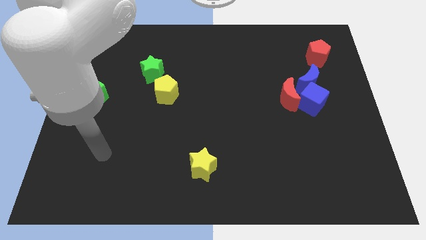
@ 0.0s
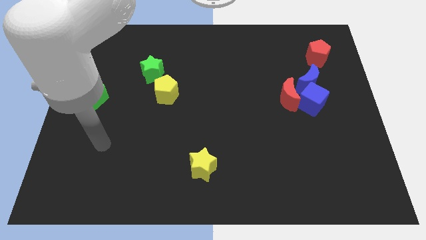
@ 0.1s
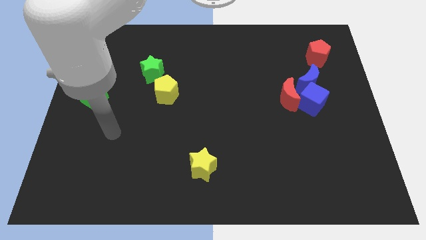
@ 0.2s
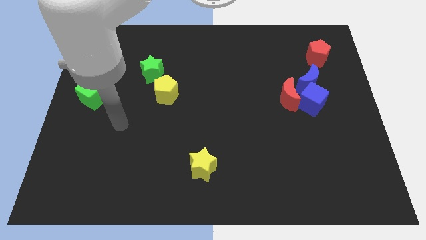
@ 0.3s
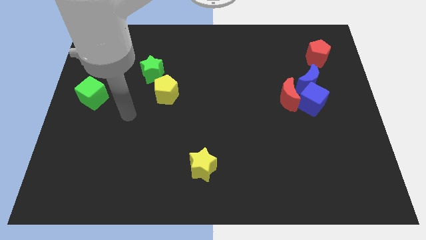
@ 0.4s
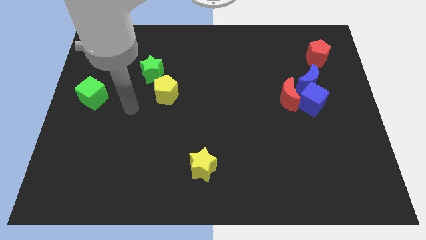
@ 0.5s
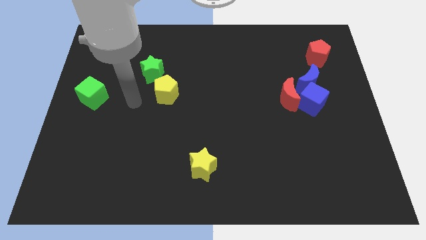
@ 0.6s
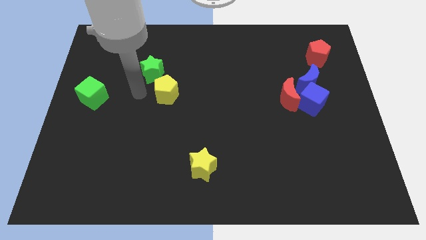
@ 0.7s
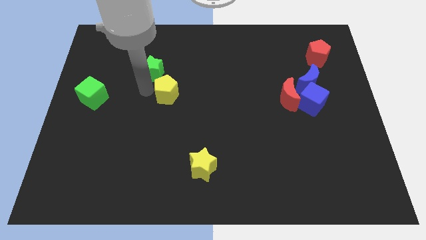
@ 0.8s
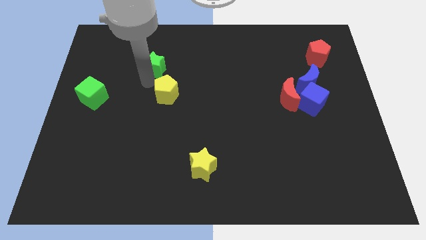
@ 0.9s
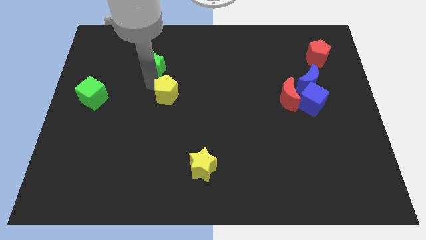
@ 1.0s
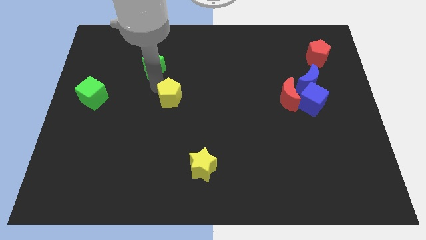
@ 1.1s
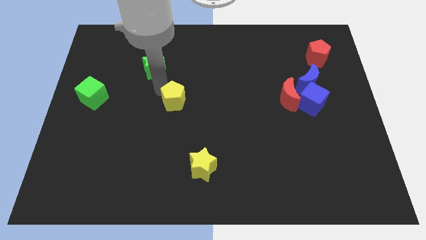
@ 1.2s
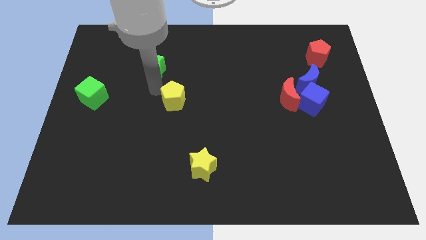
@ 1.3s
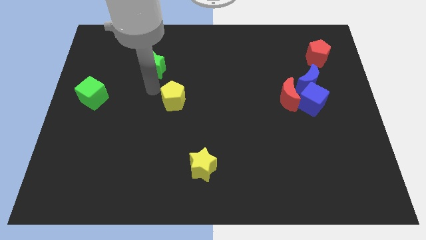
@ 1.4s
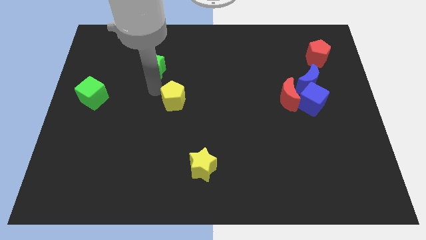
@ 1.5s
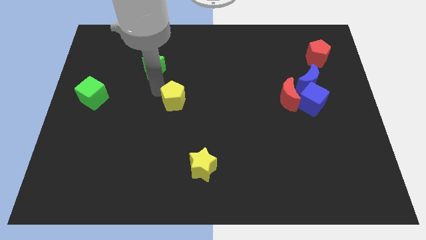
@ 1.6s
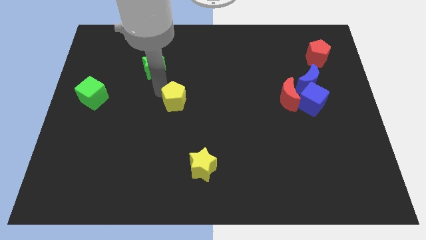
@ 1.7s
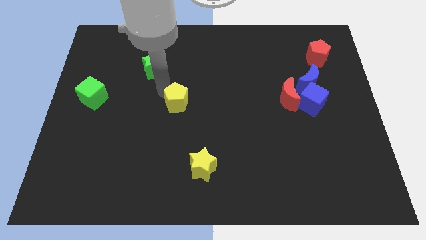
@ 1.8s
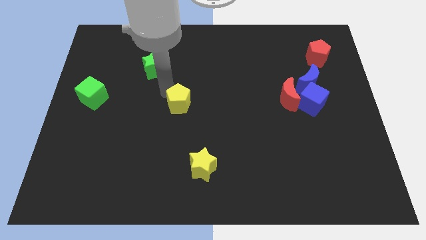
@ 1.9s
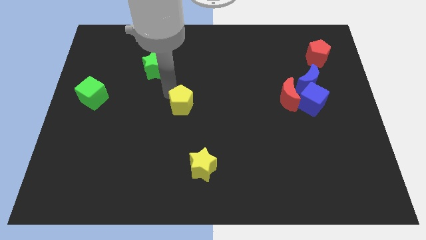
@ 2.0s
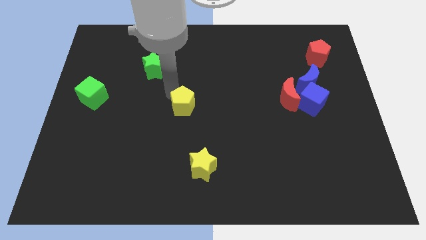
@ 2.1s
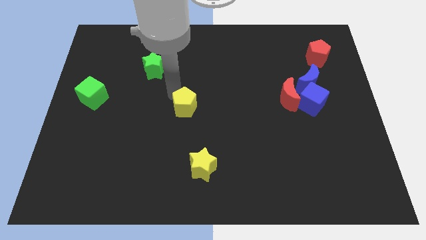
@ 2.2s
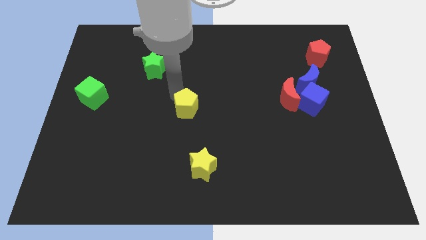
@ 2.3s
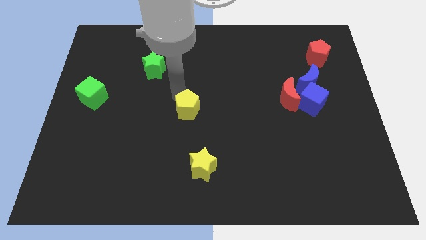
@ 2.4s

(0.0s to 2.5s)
move the yellow pentagon downwards and right a bit

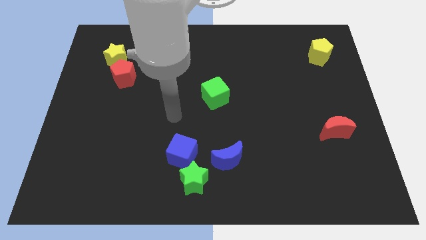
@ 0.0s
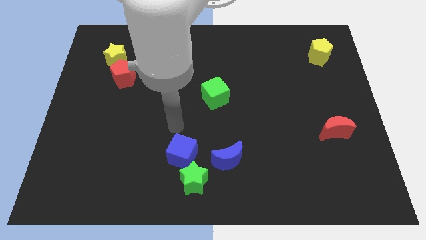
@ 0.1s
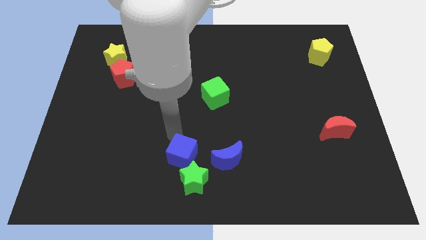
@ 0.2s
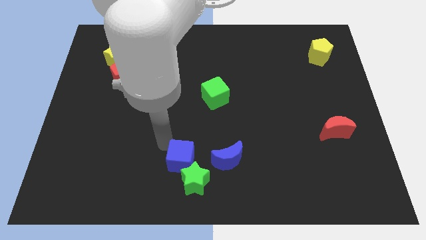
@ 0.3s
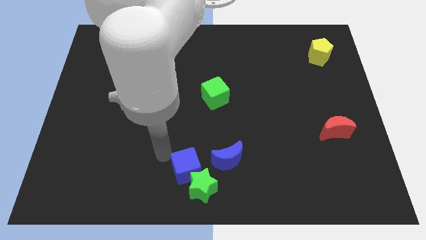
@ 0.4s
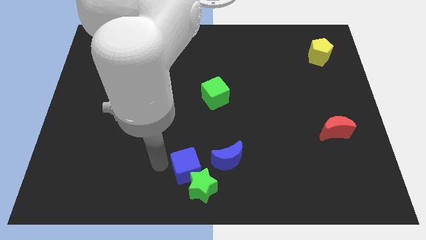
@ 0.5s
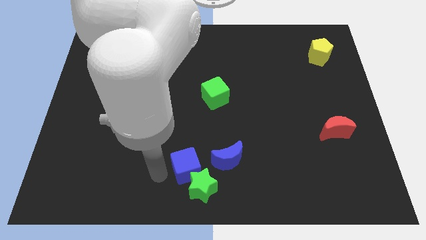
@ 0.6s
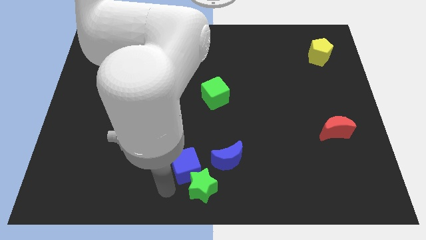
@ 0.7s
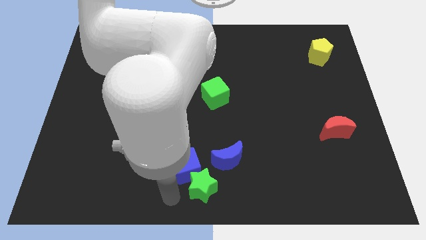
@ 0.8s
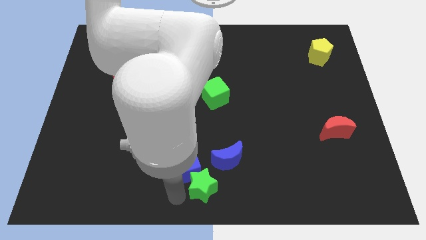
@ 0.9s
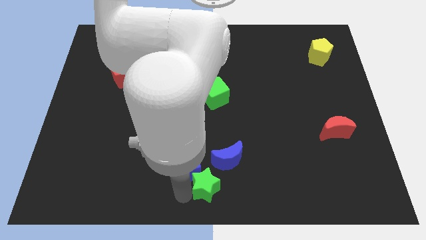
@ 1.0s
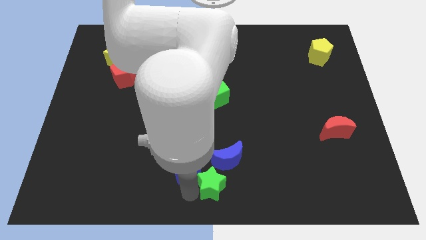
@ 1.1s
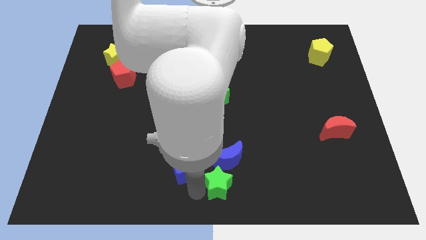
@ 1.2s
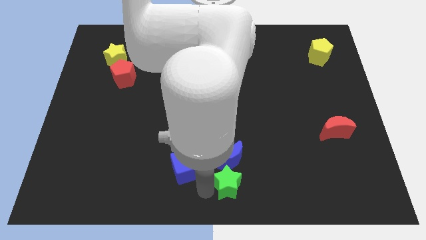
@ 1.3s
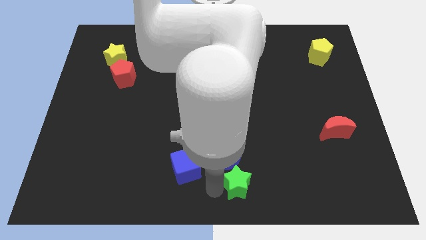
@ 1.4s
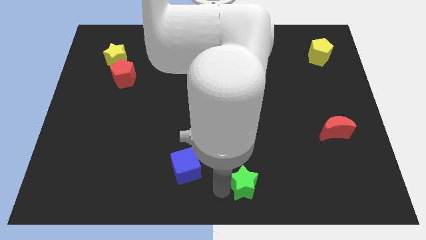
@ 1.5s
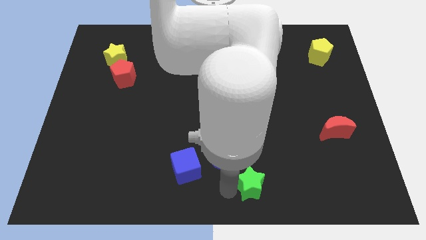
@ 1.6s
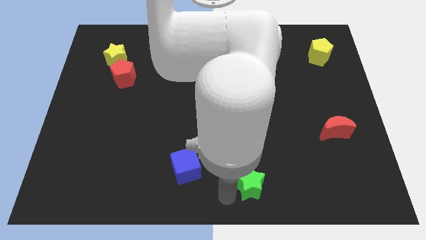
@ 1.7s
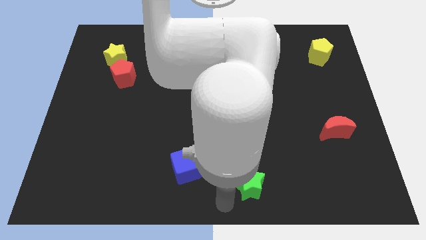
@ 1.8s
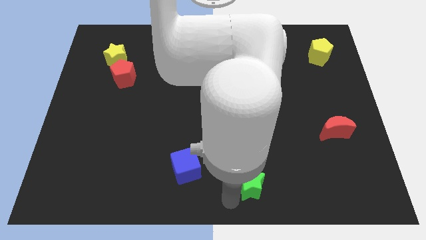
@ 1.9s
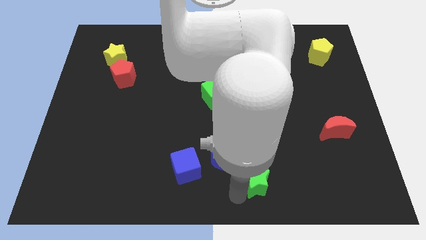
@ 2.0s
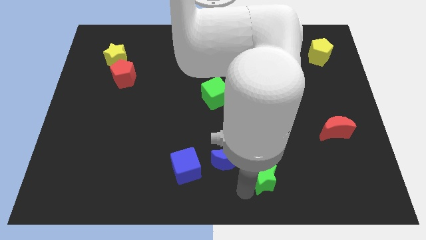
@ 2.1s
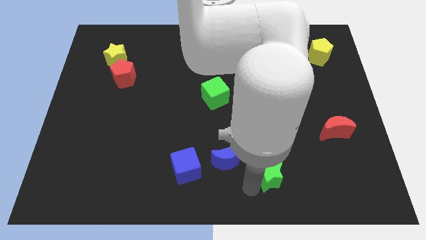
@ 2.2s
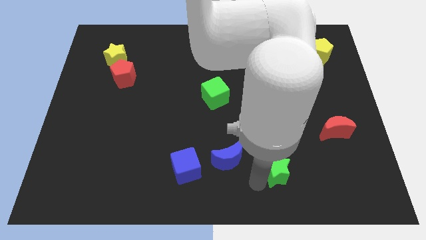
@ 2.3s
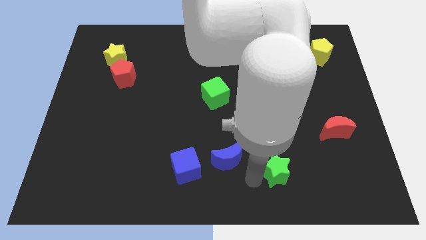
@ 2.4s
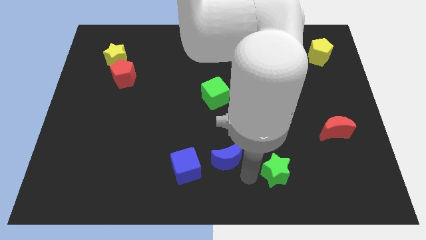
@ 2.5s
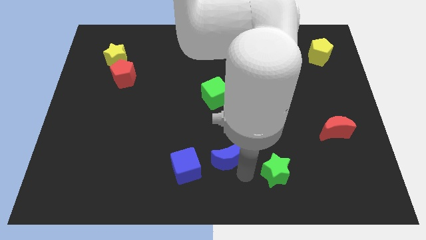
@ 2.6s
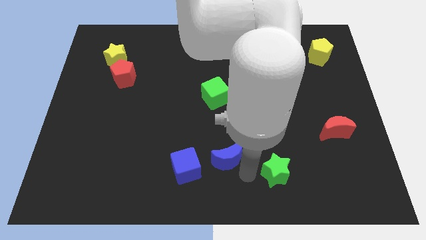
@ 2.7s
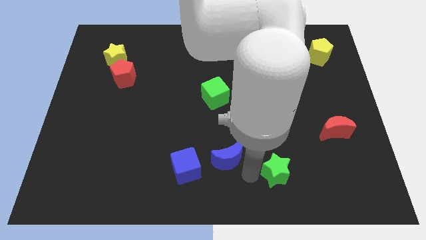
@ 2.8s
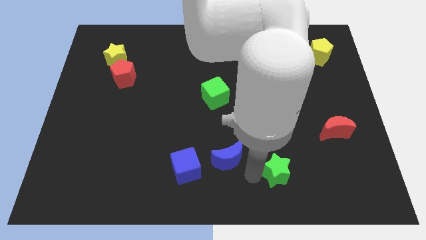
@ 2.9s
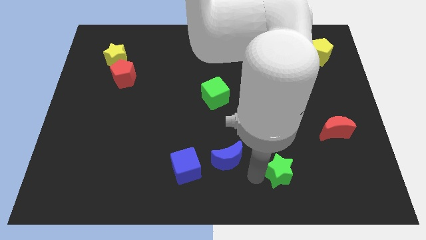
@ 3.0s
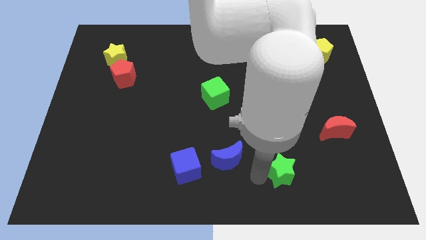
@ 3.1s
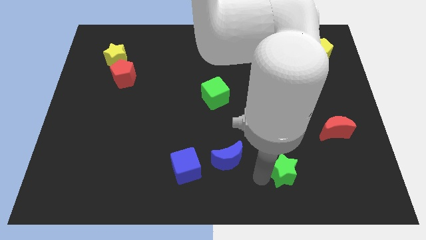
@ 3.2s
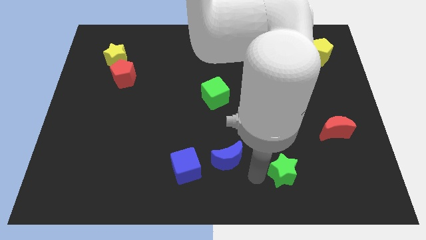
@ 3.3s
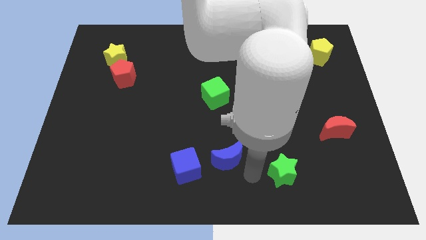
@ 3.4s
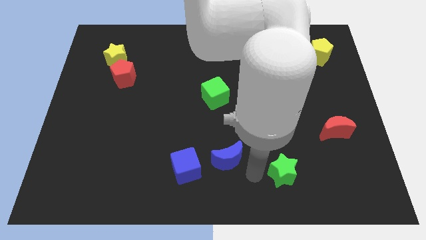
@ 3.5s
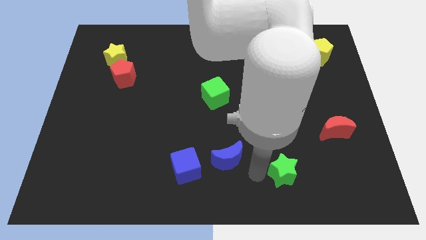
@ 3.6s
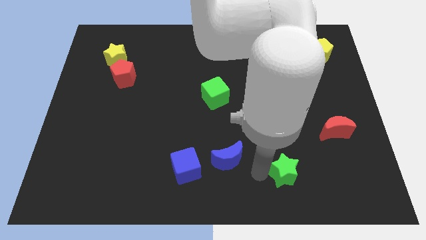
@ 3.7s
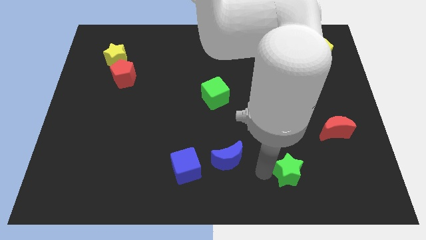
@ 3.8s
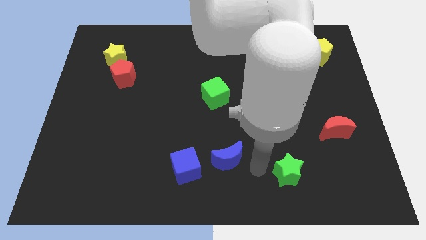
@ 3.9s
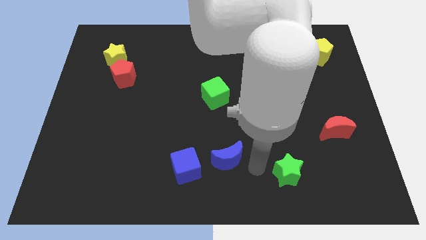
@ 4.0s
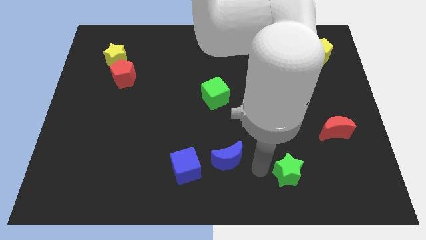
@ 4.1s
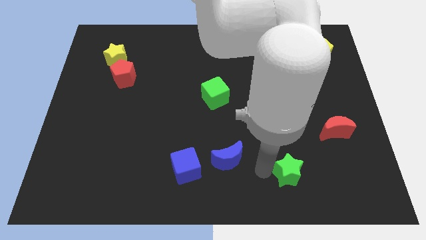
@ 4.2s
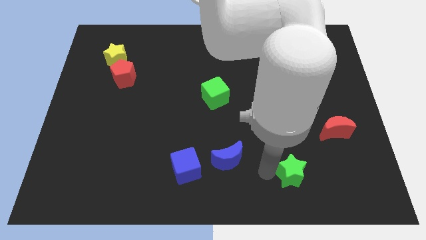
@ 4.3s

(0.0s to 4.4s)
move the green star right

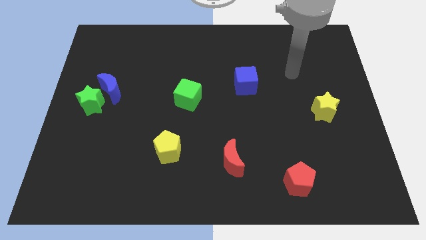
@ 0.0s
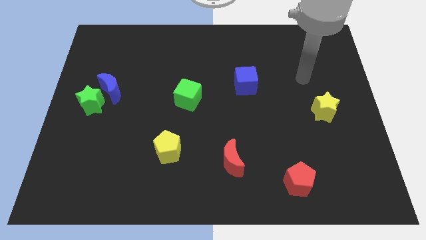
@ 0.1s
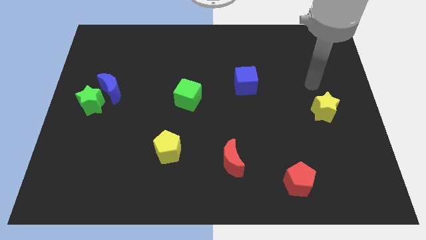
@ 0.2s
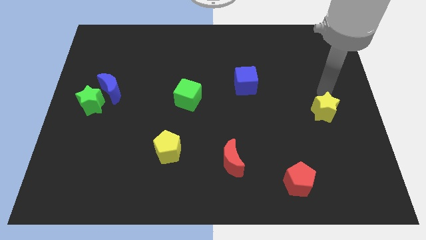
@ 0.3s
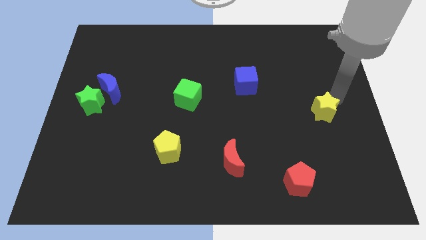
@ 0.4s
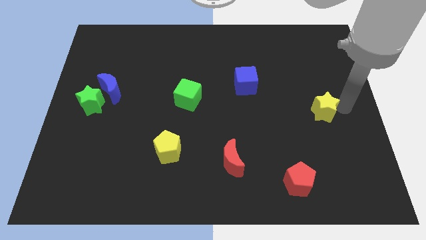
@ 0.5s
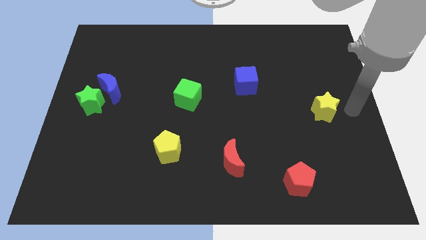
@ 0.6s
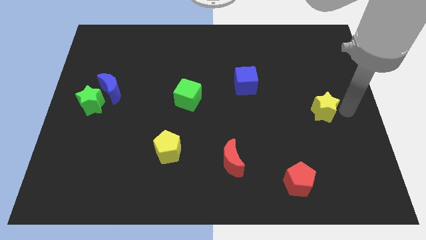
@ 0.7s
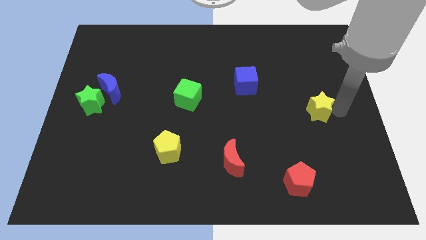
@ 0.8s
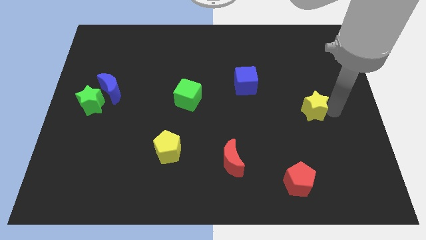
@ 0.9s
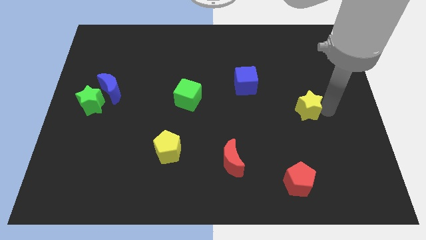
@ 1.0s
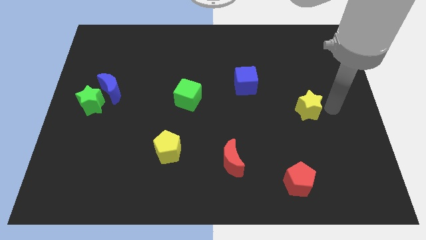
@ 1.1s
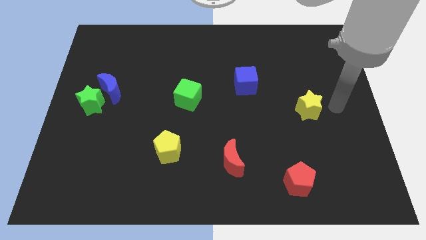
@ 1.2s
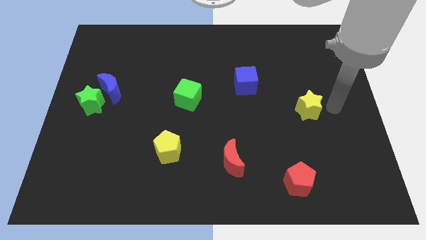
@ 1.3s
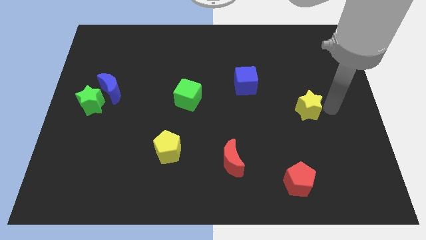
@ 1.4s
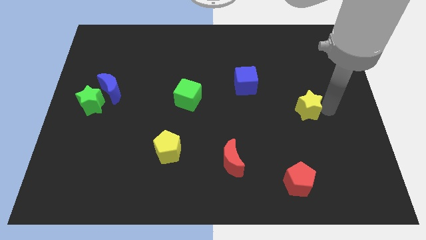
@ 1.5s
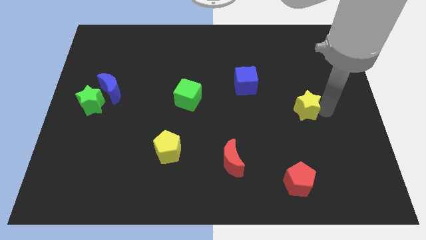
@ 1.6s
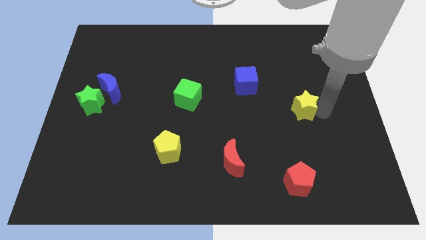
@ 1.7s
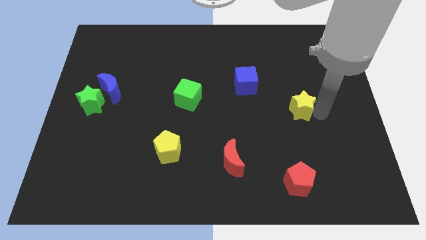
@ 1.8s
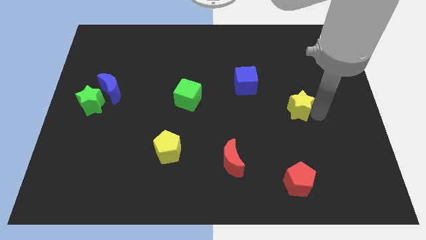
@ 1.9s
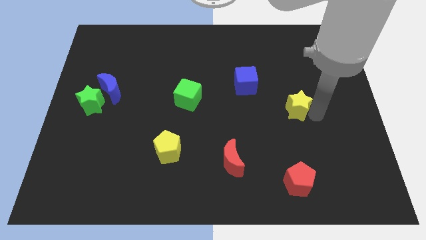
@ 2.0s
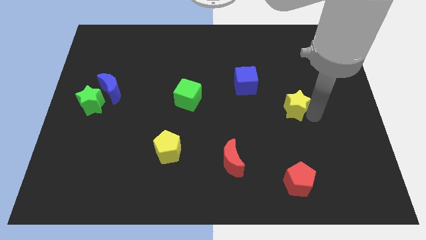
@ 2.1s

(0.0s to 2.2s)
slightly move the yellow star to the left
